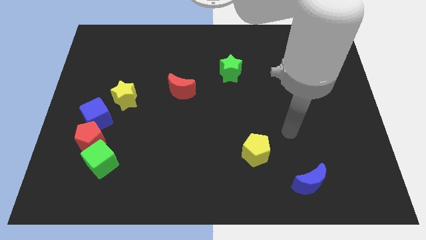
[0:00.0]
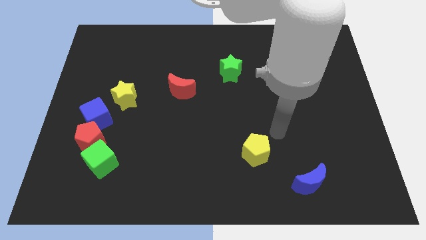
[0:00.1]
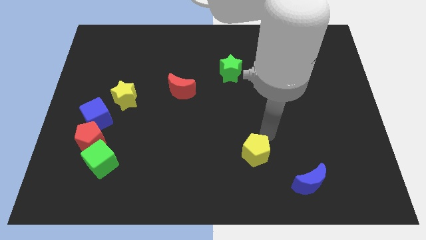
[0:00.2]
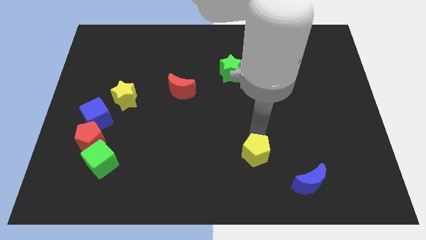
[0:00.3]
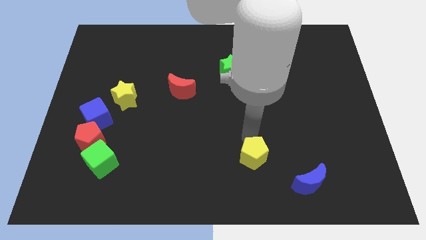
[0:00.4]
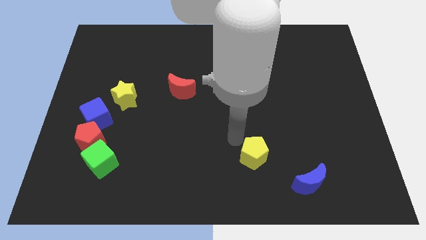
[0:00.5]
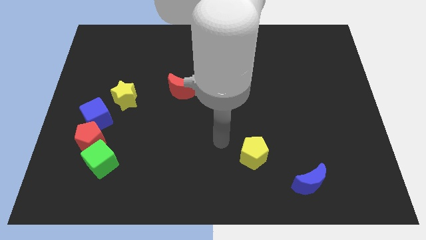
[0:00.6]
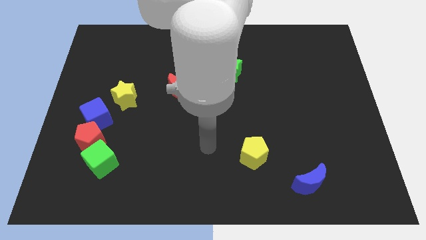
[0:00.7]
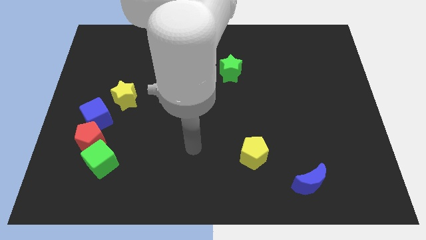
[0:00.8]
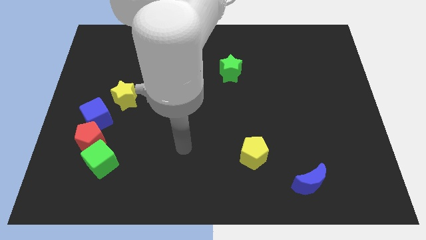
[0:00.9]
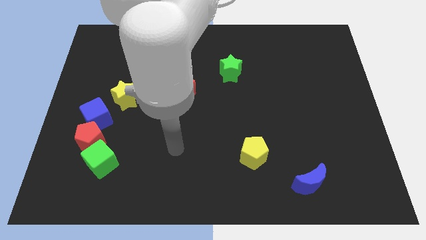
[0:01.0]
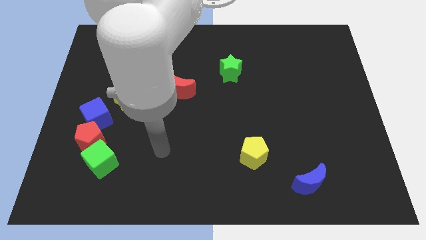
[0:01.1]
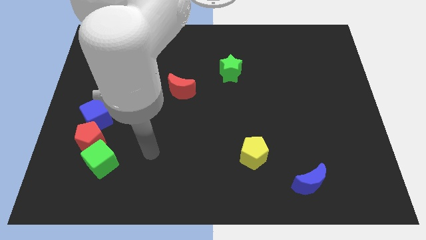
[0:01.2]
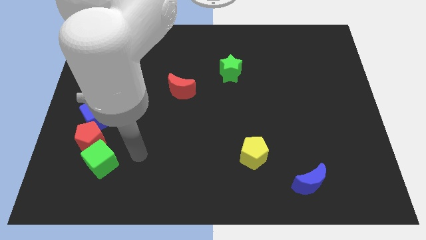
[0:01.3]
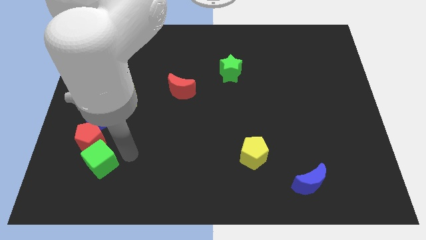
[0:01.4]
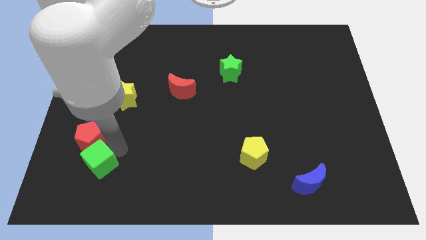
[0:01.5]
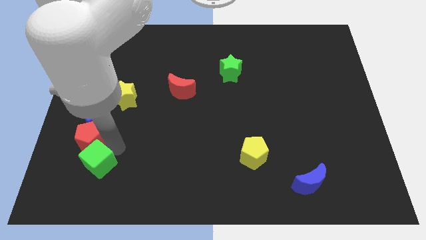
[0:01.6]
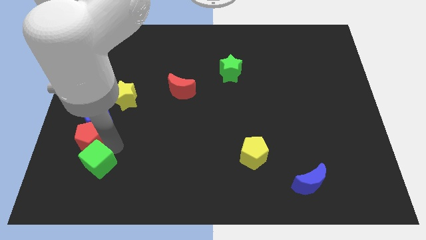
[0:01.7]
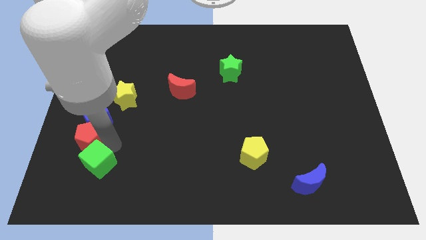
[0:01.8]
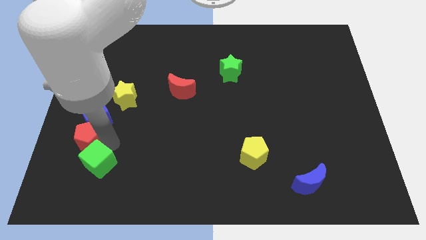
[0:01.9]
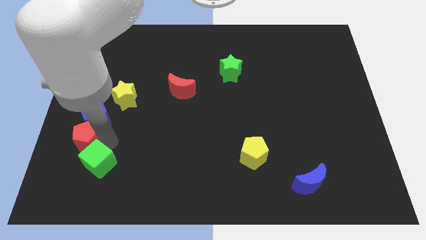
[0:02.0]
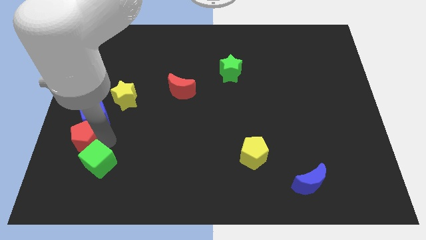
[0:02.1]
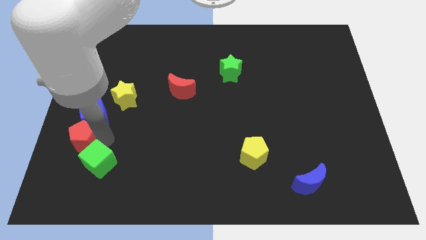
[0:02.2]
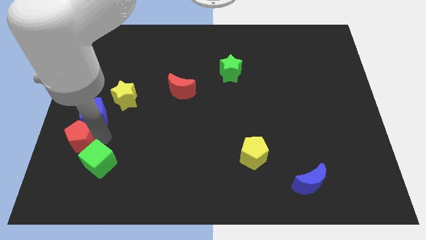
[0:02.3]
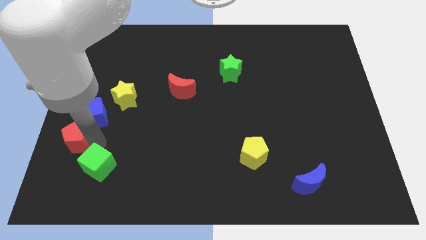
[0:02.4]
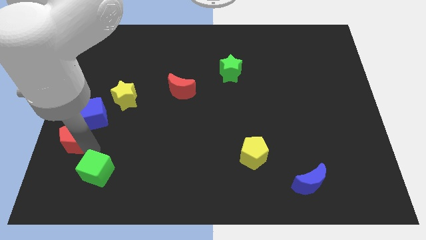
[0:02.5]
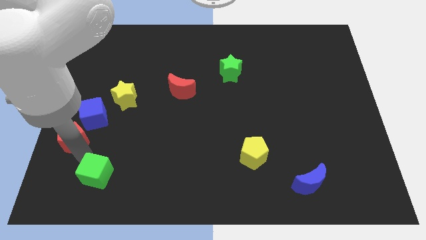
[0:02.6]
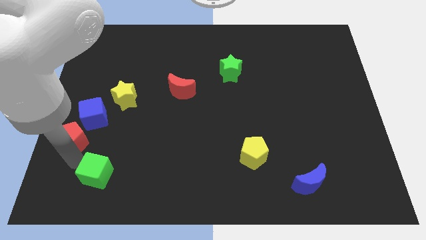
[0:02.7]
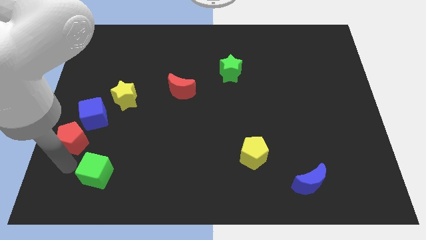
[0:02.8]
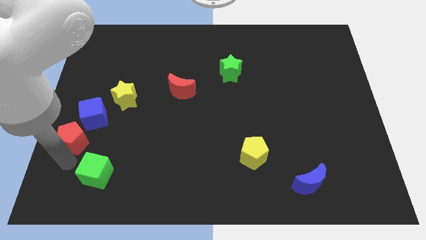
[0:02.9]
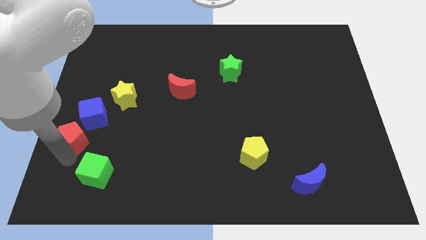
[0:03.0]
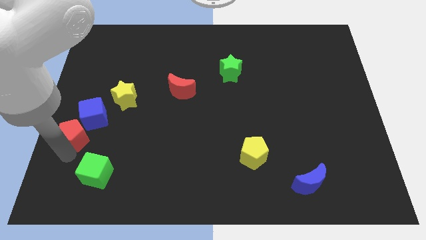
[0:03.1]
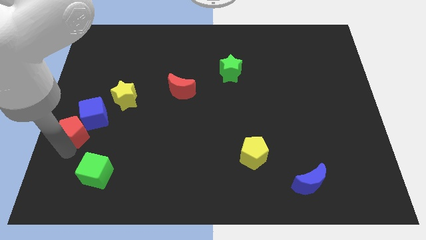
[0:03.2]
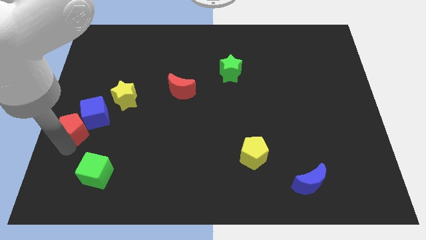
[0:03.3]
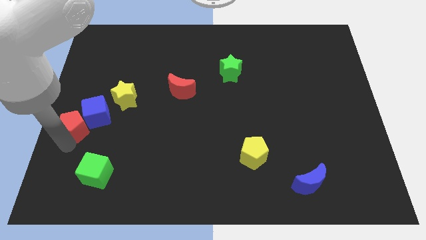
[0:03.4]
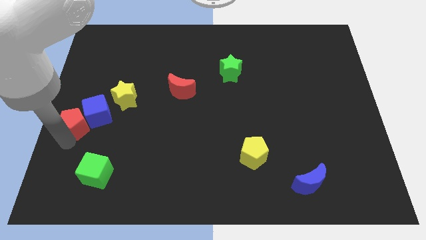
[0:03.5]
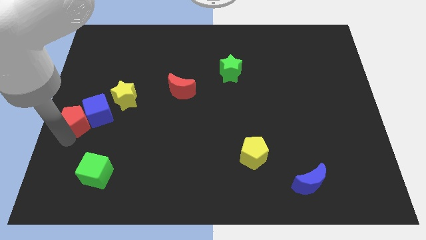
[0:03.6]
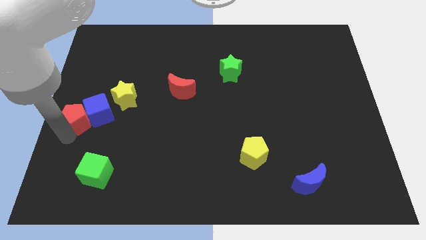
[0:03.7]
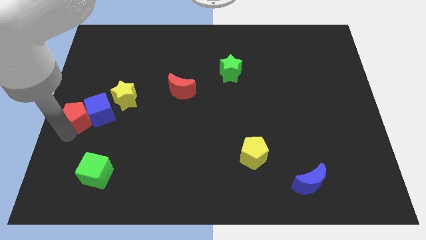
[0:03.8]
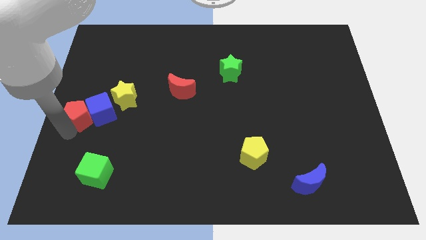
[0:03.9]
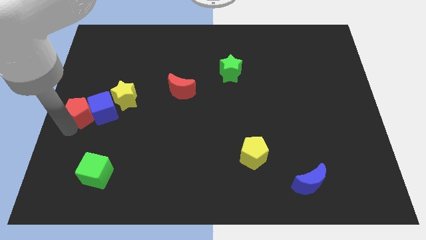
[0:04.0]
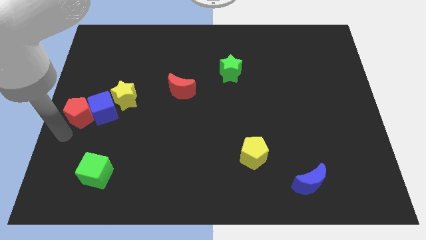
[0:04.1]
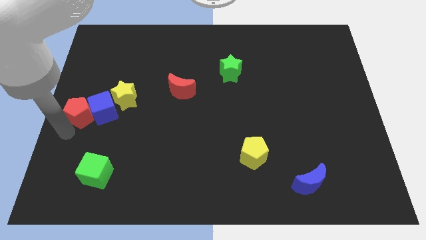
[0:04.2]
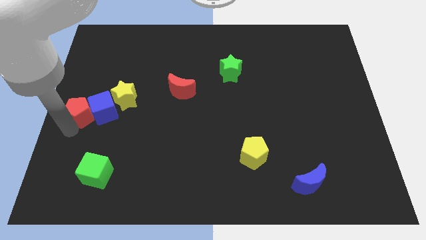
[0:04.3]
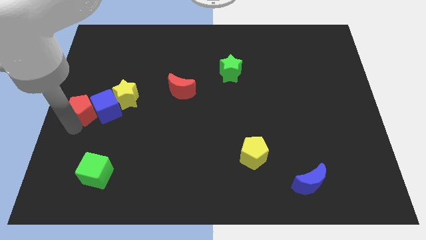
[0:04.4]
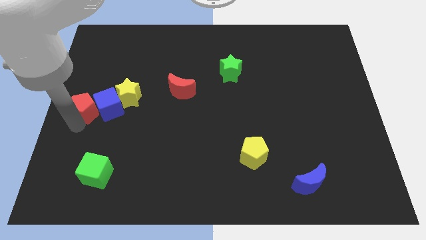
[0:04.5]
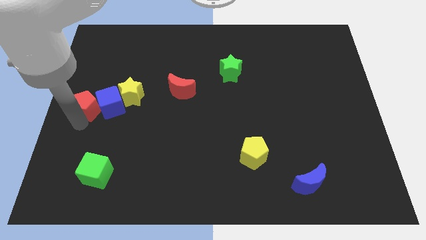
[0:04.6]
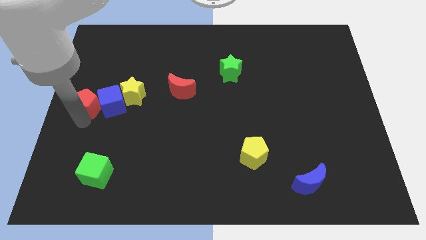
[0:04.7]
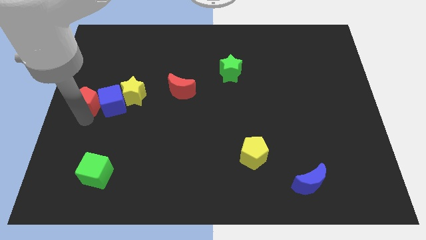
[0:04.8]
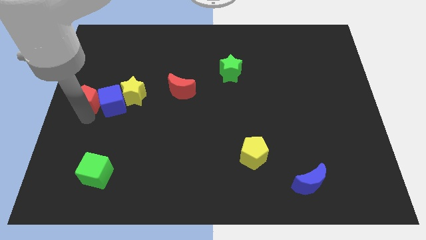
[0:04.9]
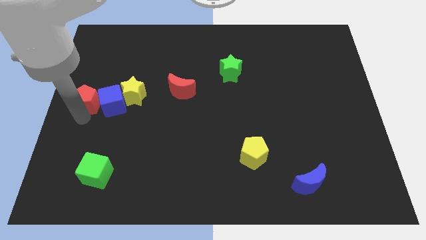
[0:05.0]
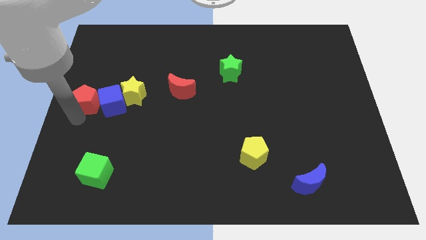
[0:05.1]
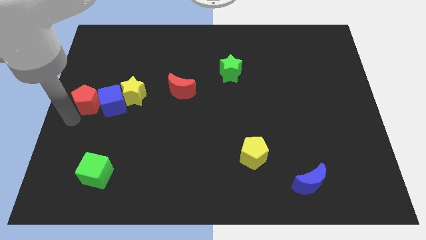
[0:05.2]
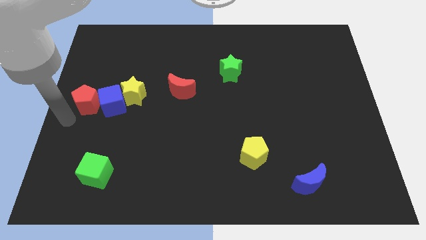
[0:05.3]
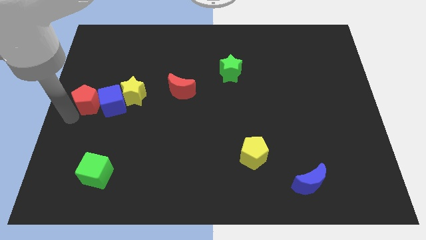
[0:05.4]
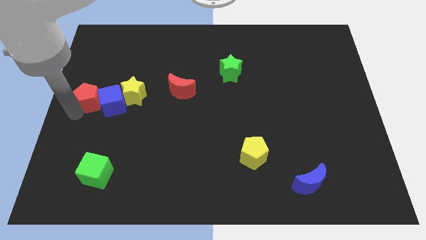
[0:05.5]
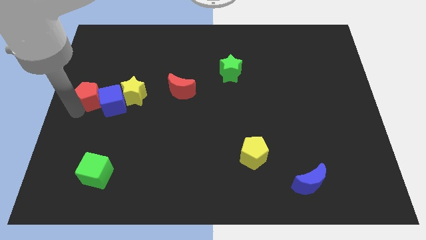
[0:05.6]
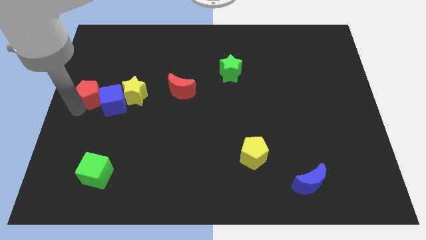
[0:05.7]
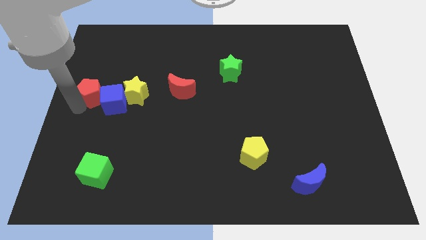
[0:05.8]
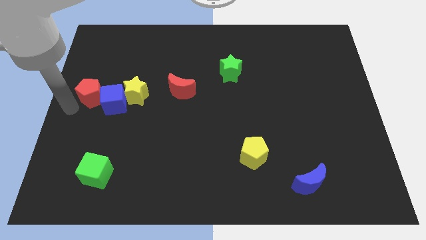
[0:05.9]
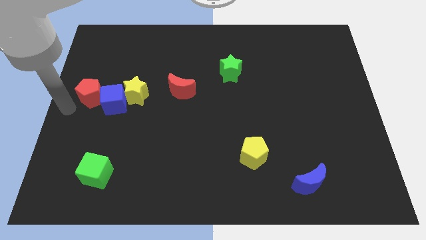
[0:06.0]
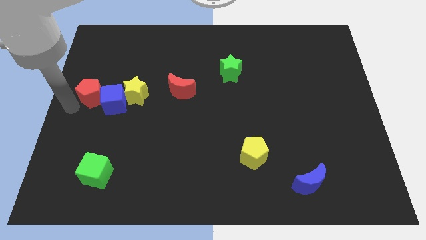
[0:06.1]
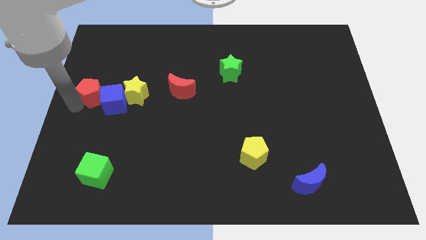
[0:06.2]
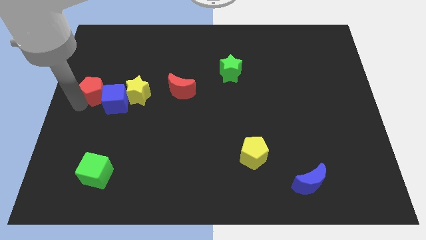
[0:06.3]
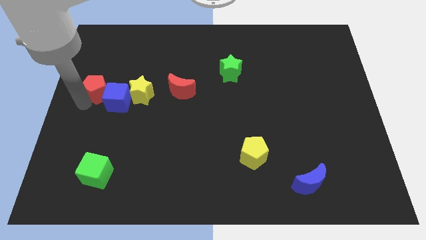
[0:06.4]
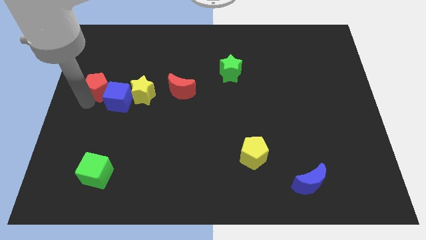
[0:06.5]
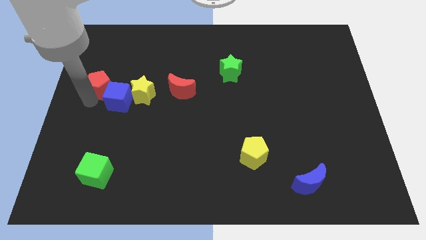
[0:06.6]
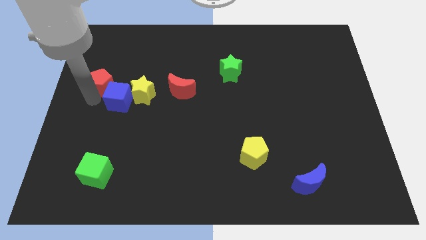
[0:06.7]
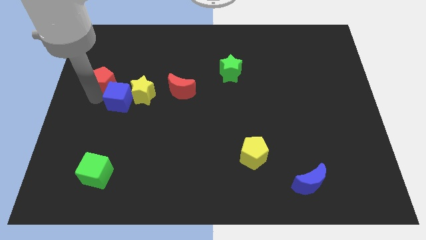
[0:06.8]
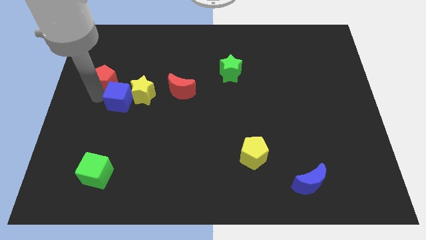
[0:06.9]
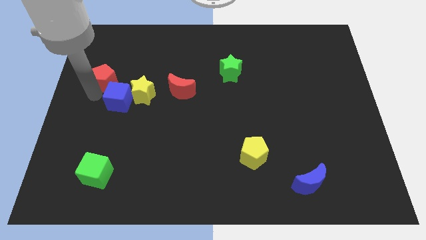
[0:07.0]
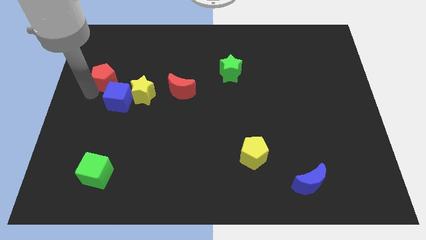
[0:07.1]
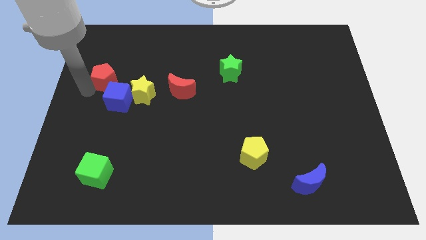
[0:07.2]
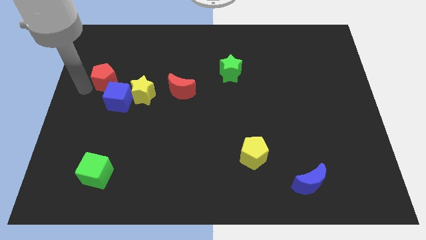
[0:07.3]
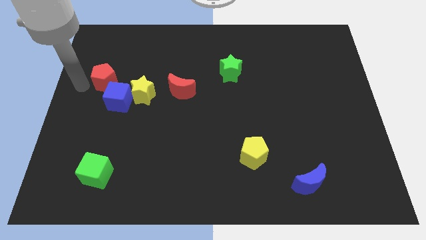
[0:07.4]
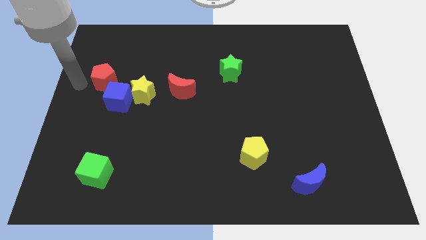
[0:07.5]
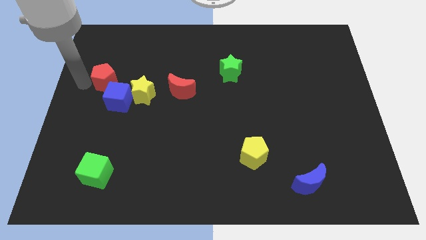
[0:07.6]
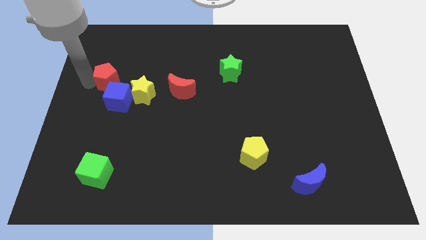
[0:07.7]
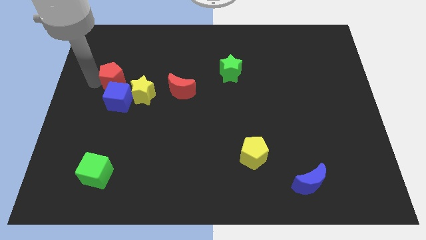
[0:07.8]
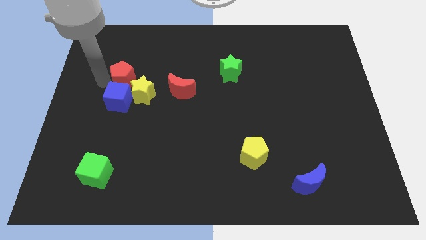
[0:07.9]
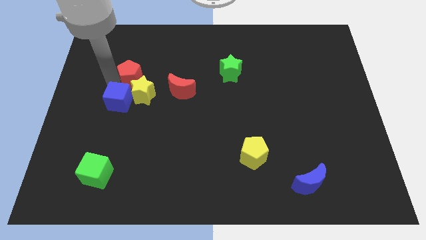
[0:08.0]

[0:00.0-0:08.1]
move the red pentagon above the yellow star
